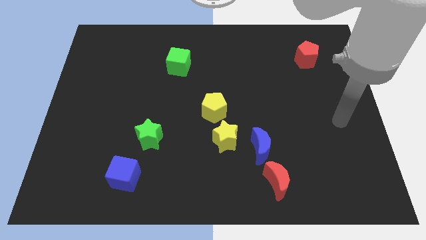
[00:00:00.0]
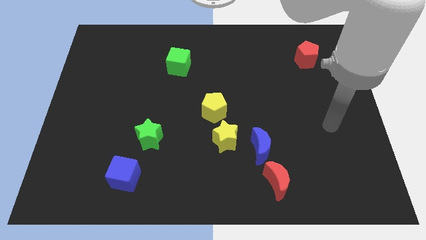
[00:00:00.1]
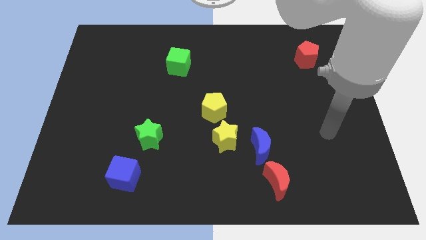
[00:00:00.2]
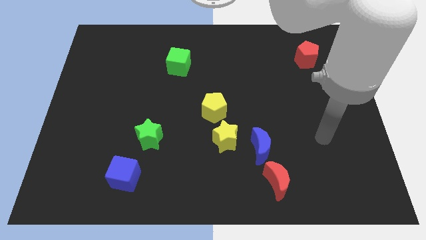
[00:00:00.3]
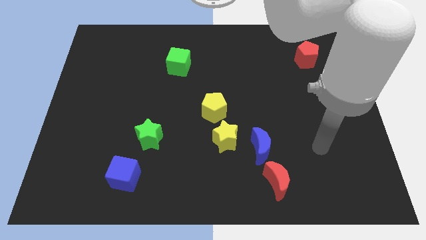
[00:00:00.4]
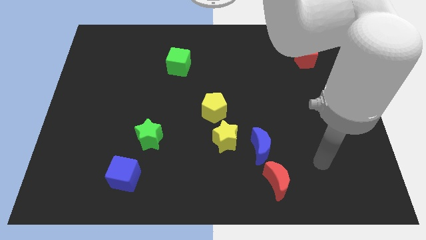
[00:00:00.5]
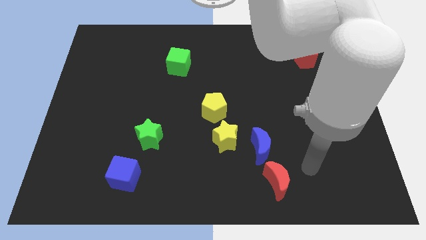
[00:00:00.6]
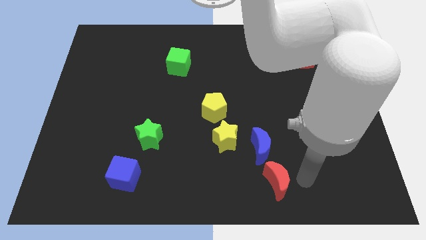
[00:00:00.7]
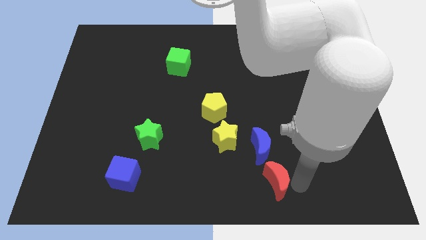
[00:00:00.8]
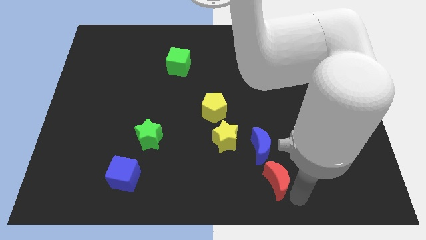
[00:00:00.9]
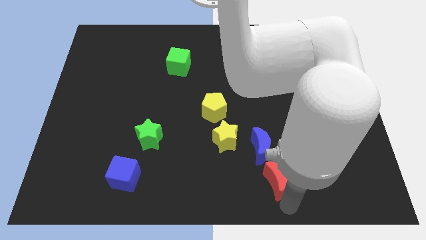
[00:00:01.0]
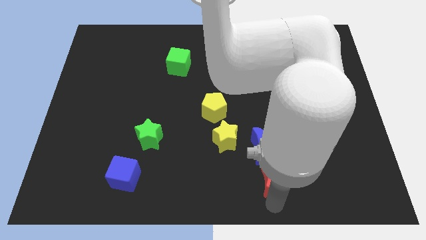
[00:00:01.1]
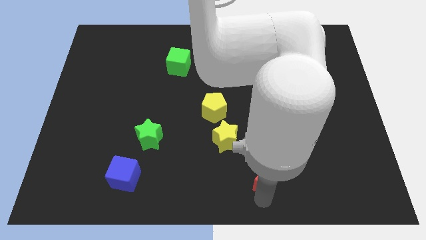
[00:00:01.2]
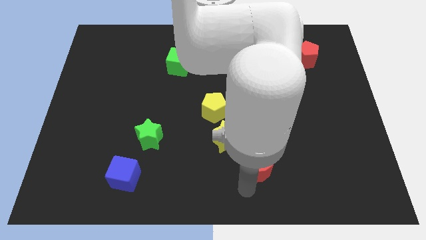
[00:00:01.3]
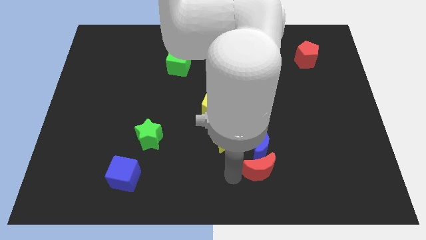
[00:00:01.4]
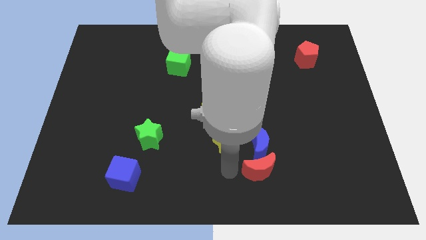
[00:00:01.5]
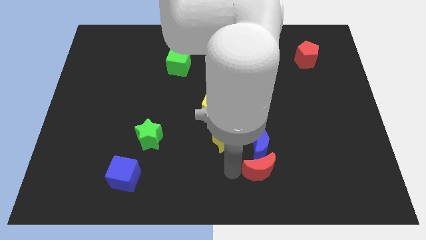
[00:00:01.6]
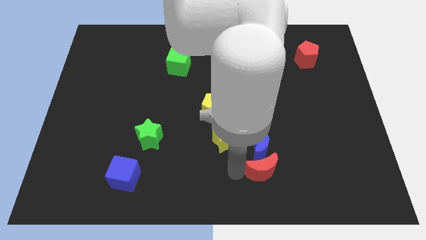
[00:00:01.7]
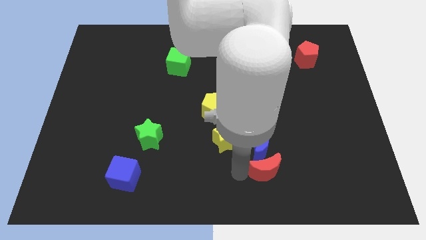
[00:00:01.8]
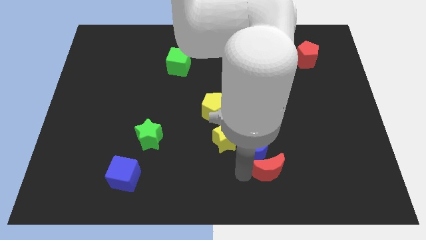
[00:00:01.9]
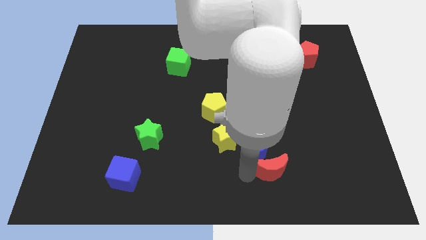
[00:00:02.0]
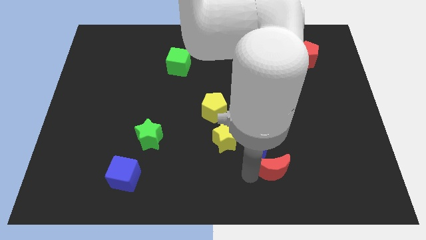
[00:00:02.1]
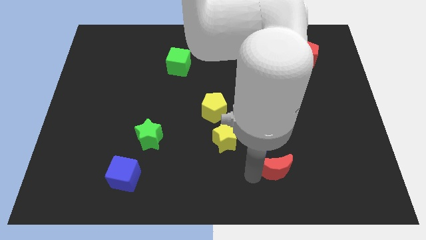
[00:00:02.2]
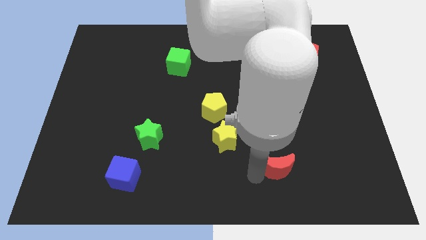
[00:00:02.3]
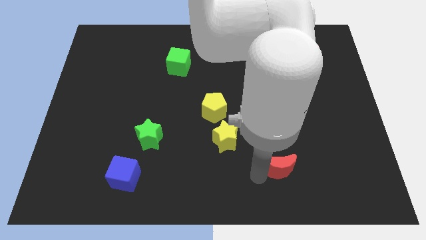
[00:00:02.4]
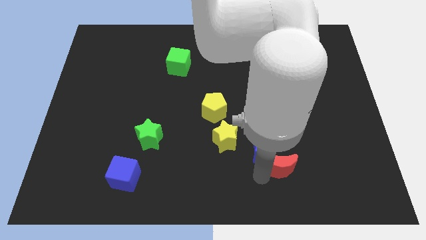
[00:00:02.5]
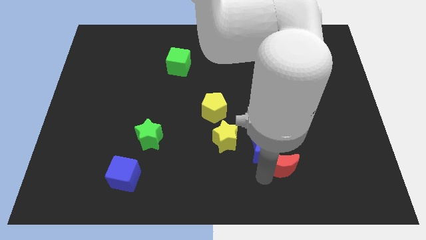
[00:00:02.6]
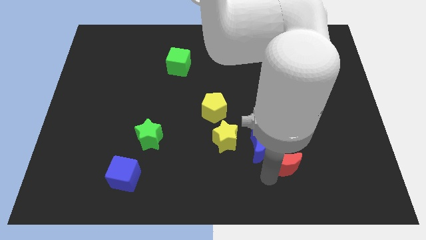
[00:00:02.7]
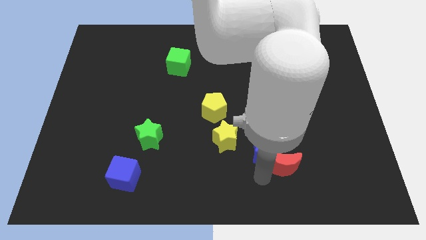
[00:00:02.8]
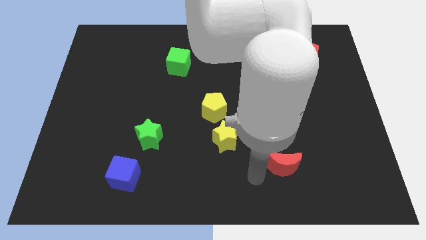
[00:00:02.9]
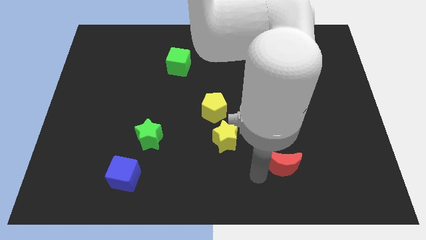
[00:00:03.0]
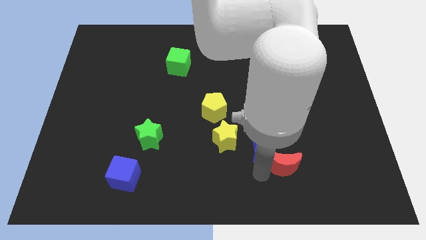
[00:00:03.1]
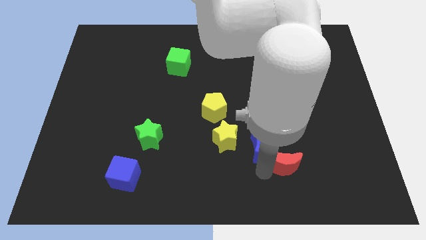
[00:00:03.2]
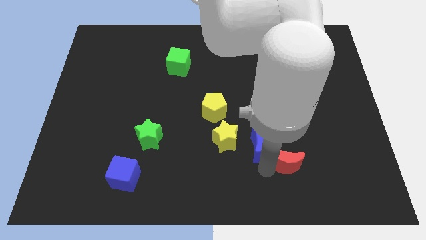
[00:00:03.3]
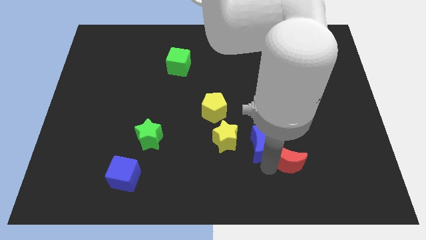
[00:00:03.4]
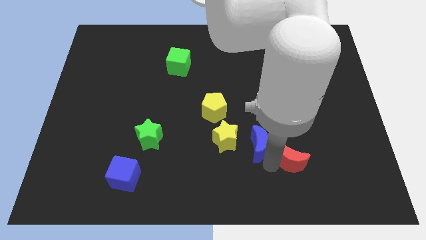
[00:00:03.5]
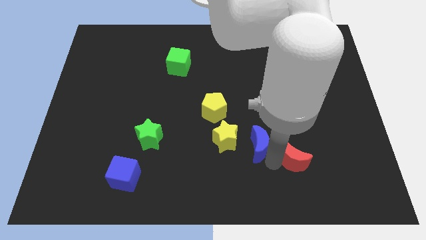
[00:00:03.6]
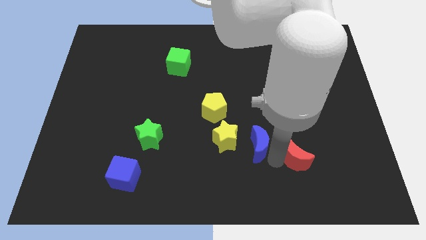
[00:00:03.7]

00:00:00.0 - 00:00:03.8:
slide the red moon upwards and right diagonally slightly

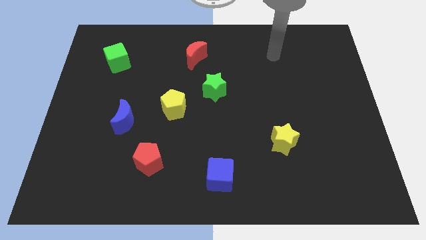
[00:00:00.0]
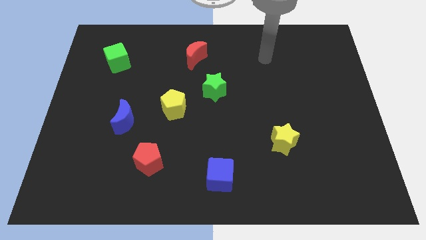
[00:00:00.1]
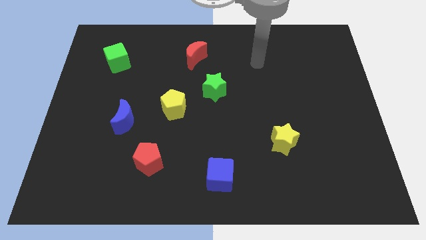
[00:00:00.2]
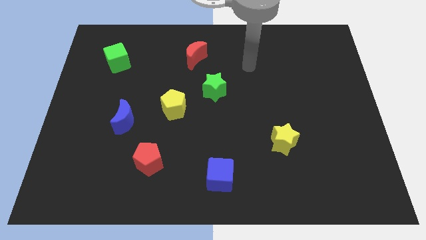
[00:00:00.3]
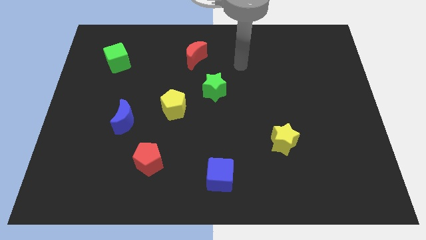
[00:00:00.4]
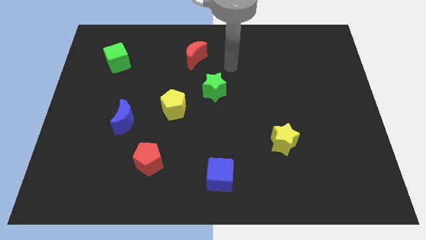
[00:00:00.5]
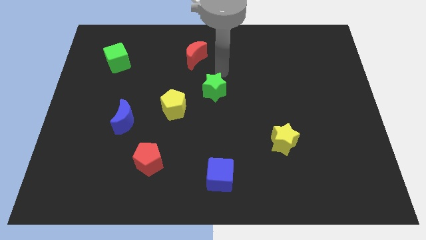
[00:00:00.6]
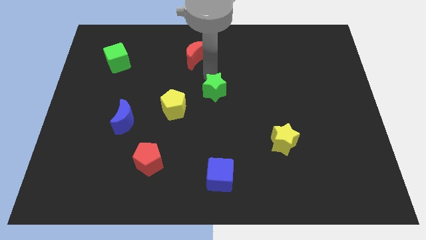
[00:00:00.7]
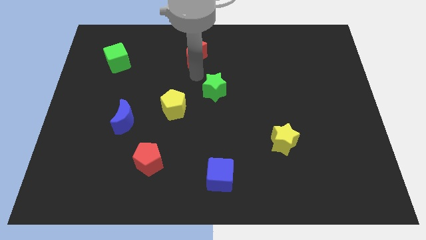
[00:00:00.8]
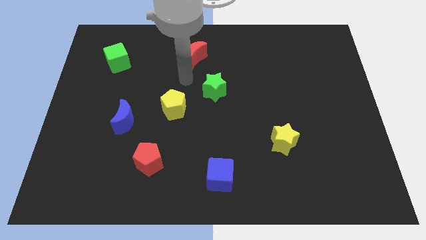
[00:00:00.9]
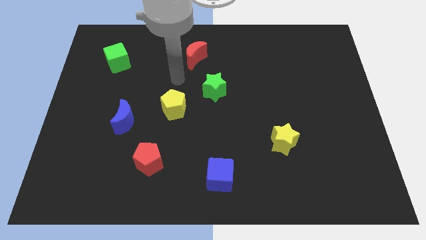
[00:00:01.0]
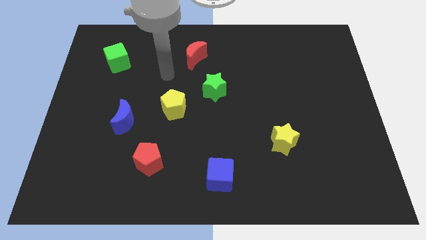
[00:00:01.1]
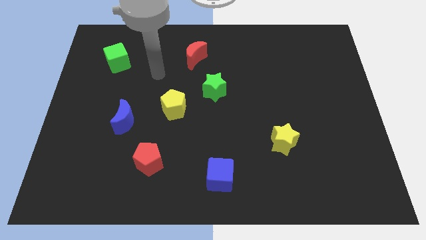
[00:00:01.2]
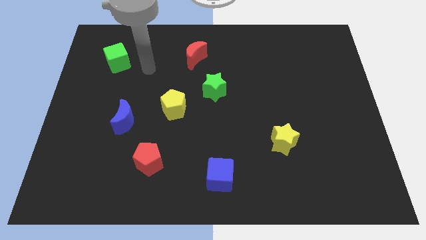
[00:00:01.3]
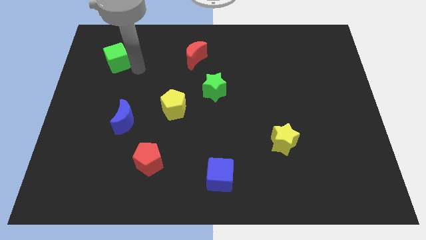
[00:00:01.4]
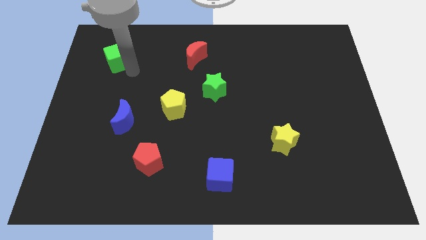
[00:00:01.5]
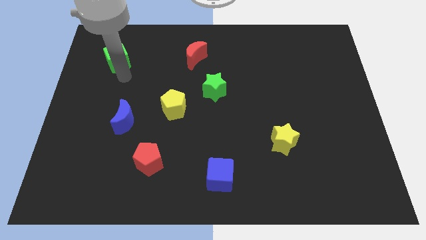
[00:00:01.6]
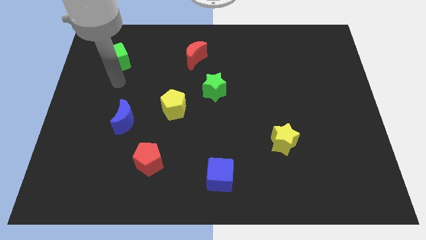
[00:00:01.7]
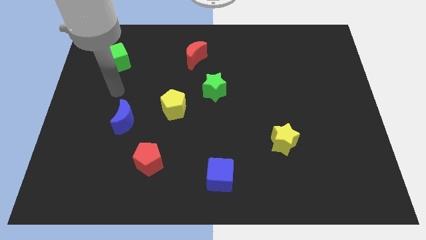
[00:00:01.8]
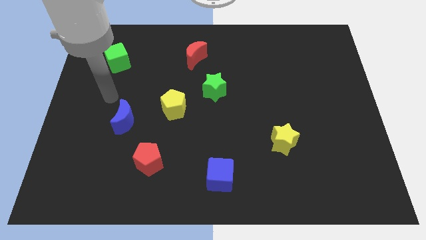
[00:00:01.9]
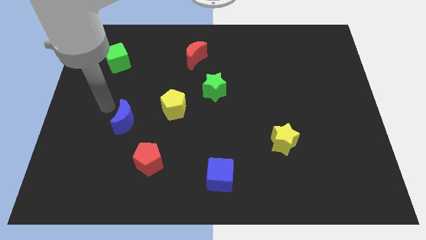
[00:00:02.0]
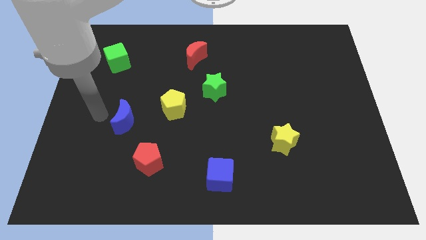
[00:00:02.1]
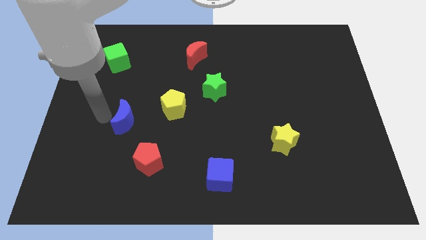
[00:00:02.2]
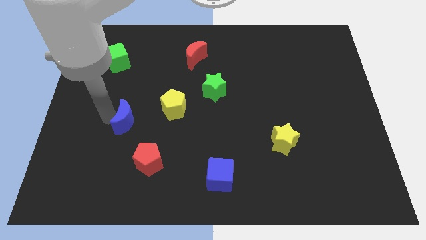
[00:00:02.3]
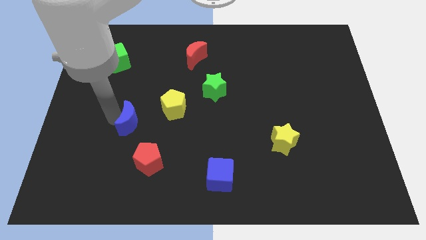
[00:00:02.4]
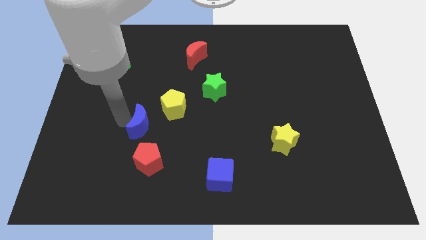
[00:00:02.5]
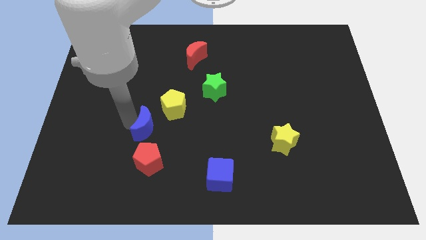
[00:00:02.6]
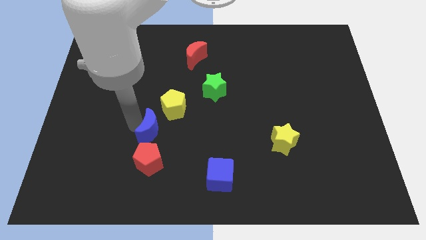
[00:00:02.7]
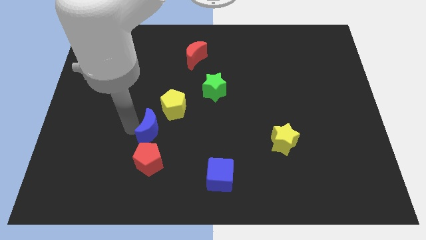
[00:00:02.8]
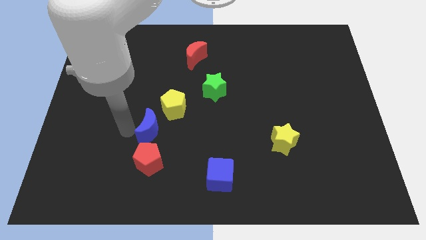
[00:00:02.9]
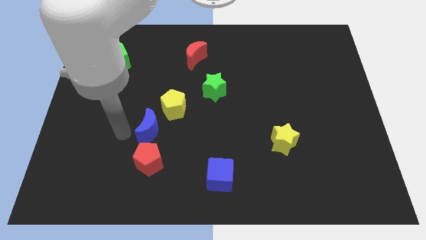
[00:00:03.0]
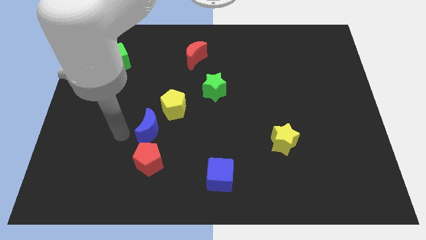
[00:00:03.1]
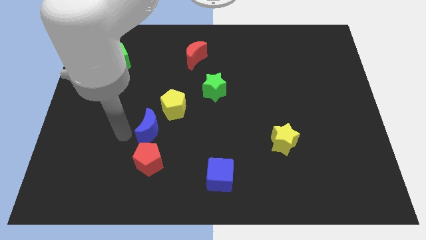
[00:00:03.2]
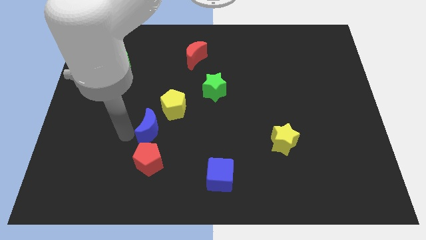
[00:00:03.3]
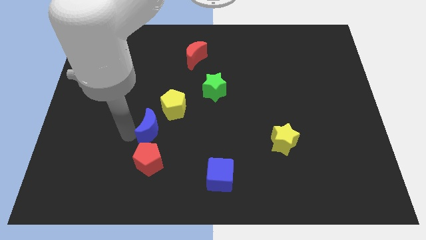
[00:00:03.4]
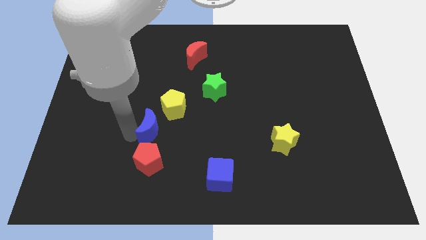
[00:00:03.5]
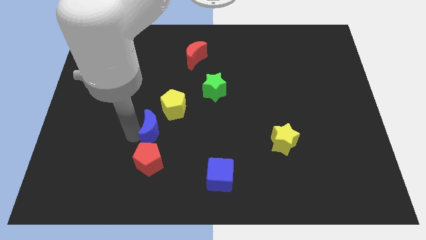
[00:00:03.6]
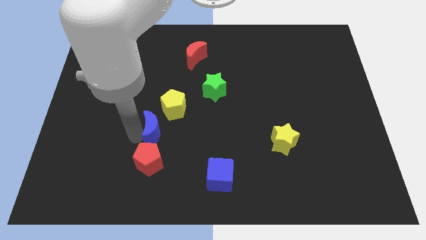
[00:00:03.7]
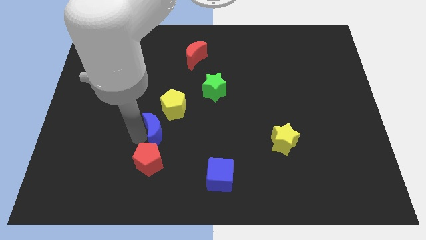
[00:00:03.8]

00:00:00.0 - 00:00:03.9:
move the blue moon right a little bit

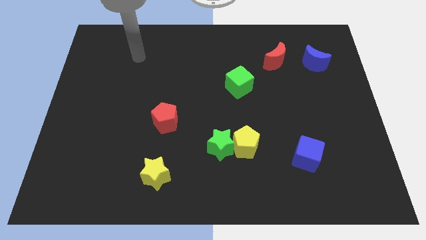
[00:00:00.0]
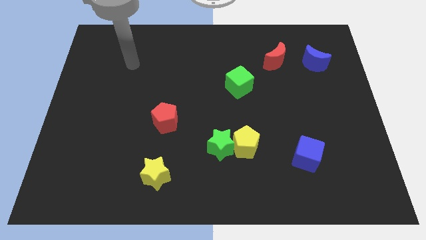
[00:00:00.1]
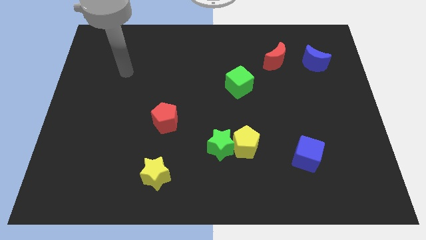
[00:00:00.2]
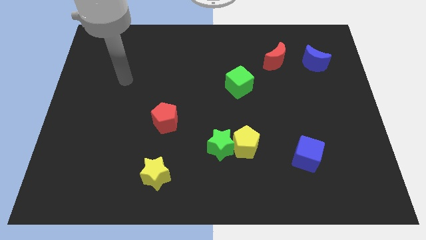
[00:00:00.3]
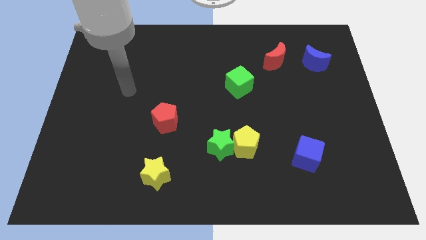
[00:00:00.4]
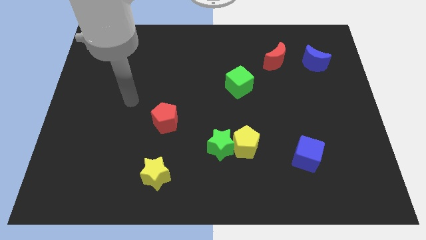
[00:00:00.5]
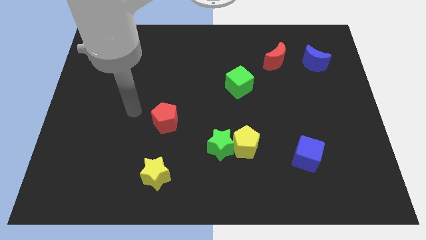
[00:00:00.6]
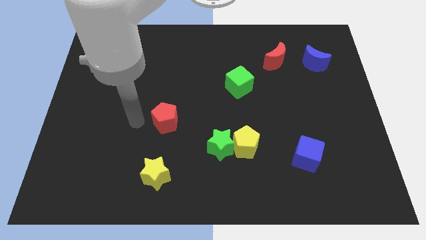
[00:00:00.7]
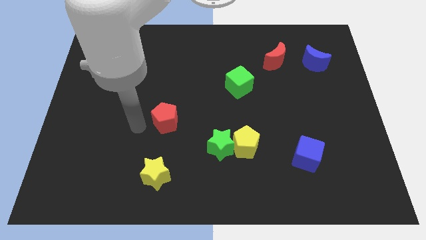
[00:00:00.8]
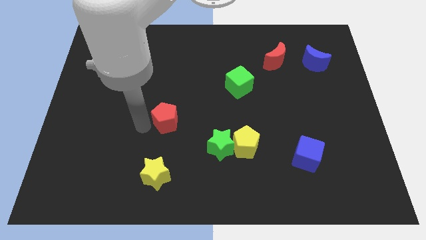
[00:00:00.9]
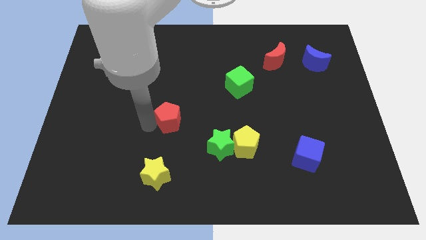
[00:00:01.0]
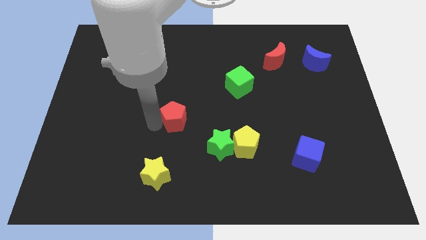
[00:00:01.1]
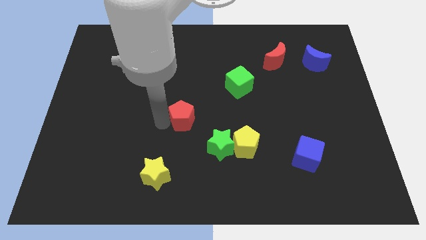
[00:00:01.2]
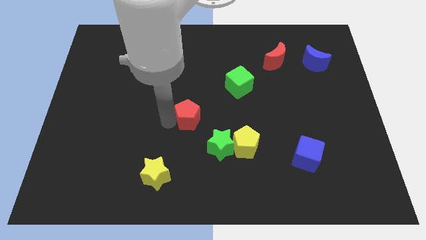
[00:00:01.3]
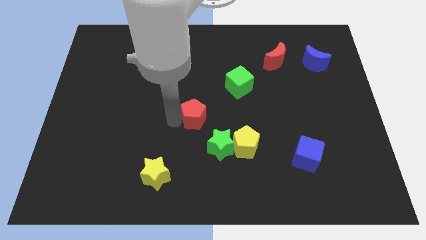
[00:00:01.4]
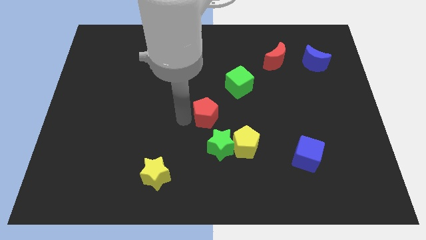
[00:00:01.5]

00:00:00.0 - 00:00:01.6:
push the red pentagon a little right
